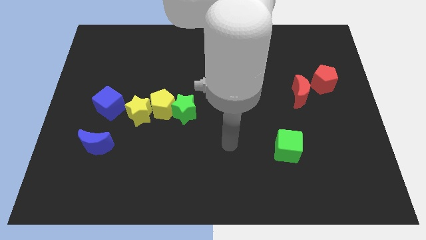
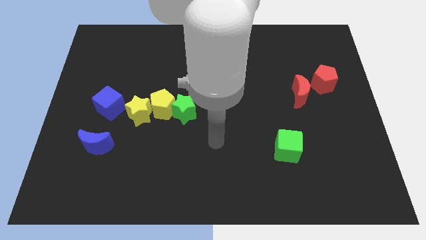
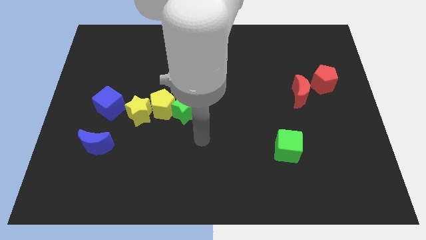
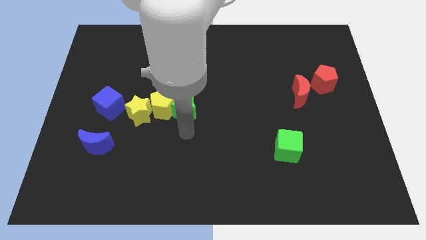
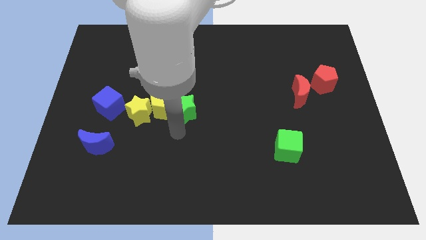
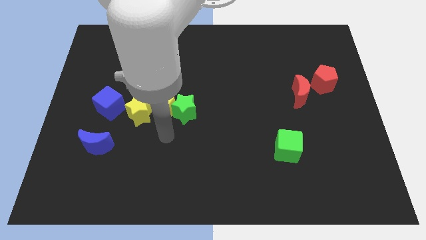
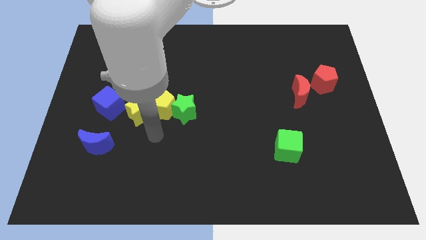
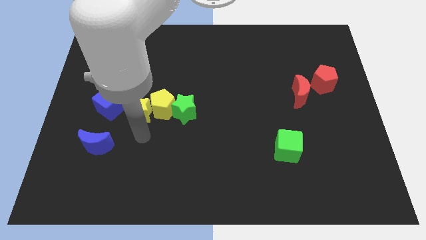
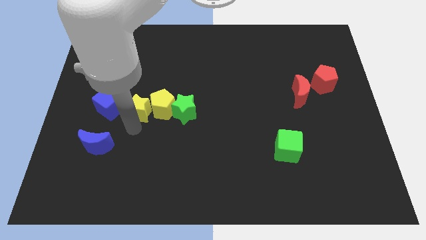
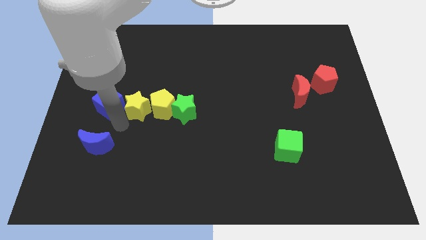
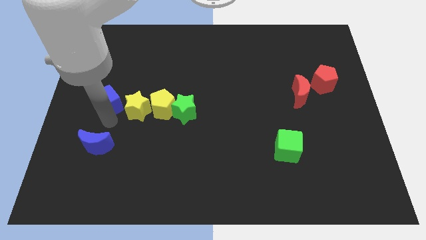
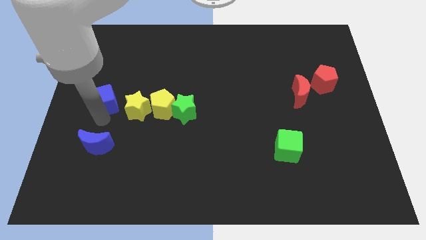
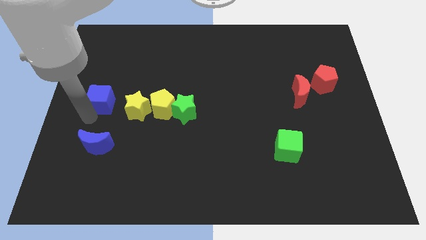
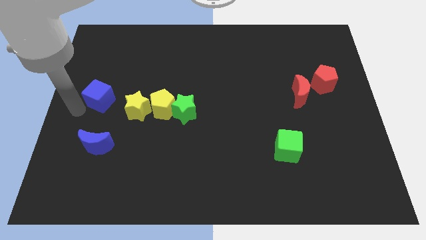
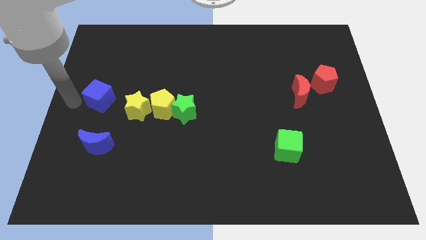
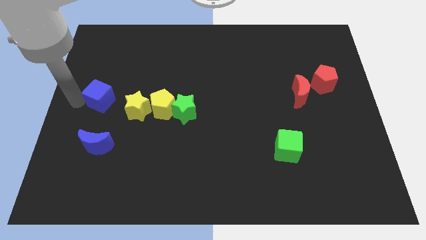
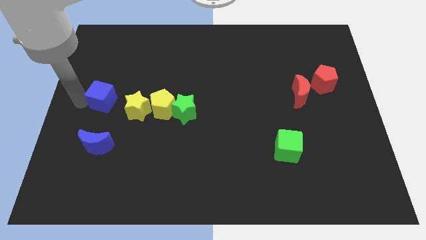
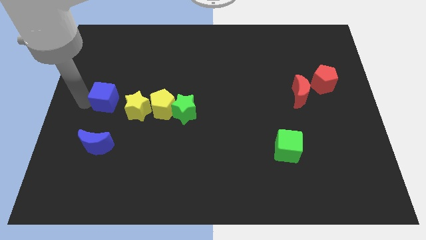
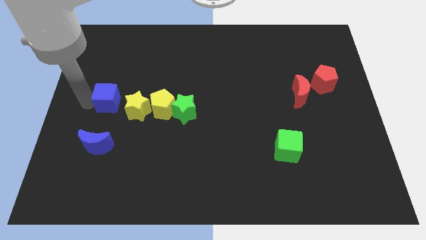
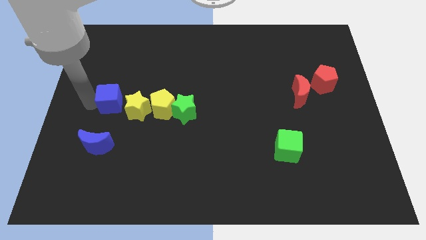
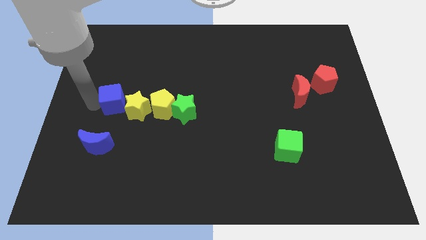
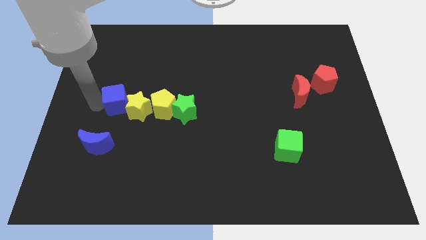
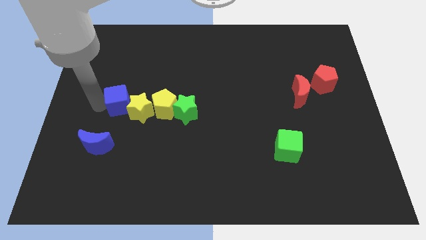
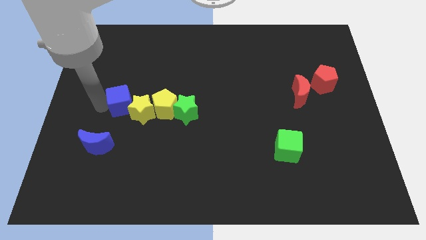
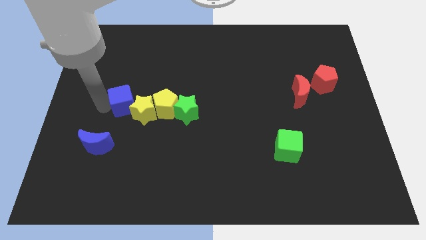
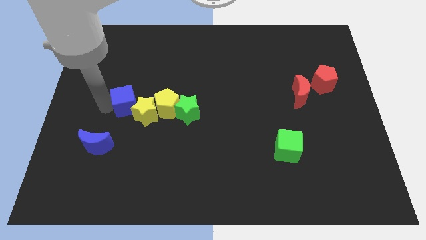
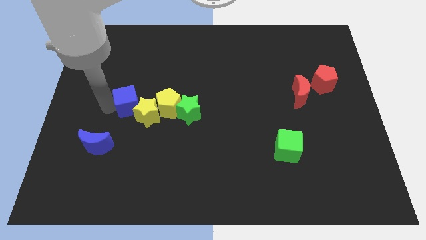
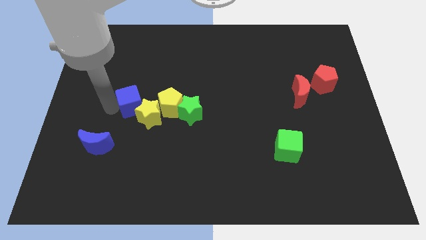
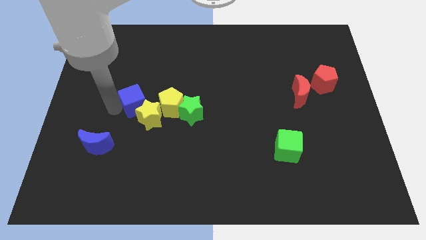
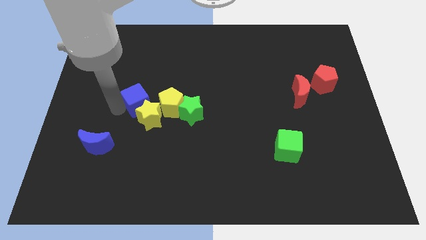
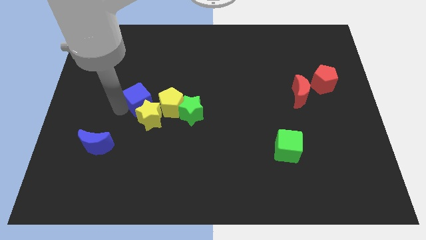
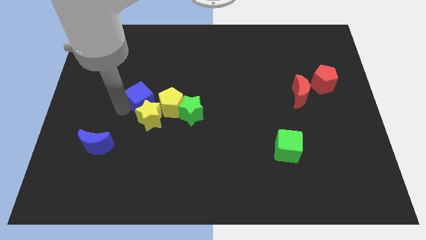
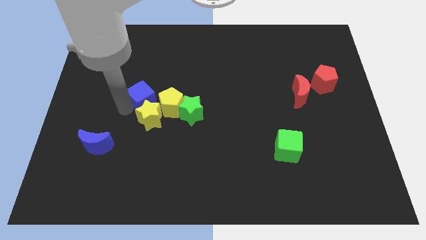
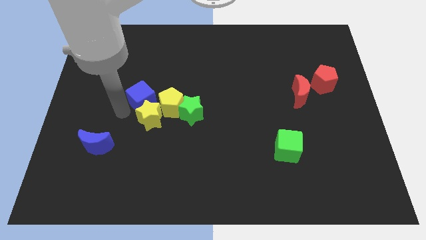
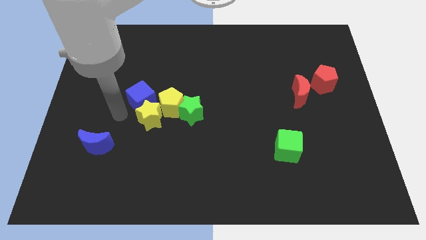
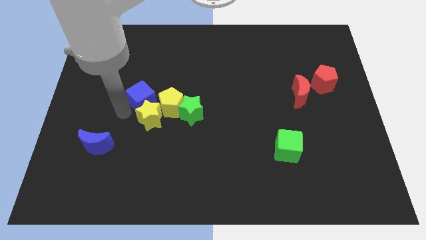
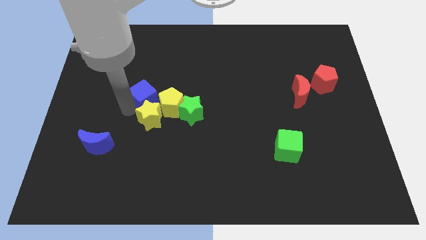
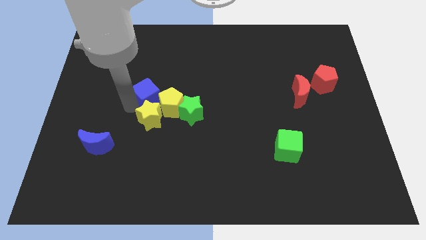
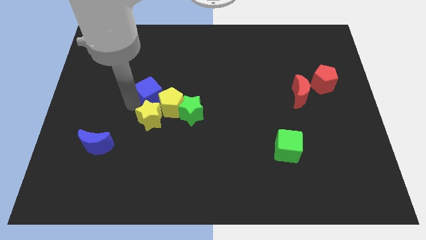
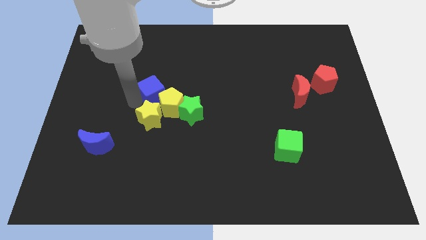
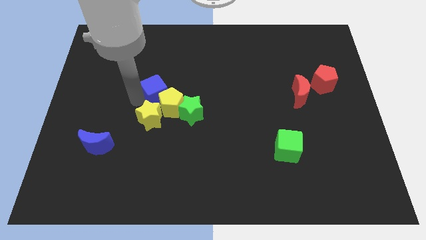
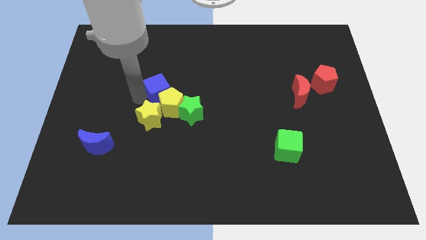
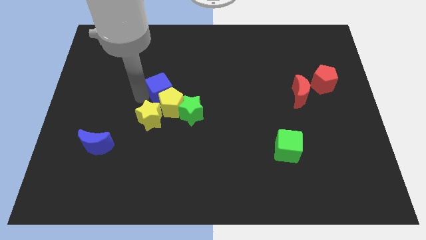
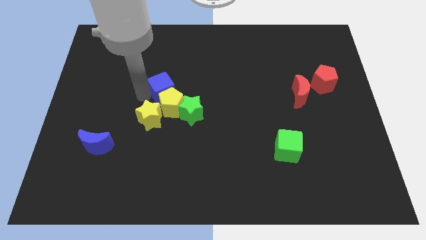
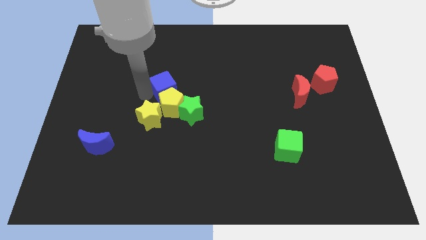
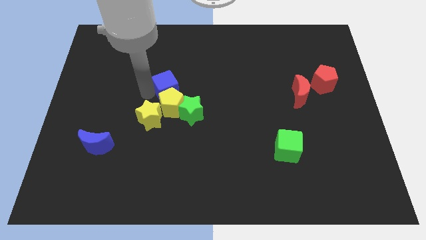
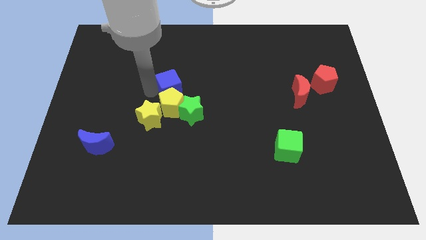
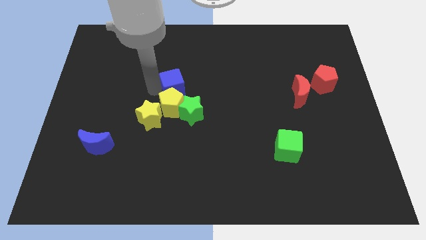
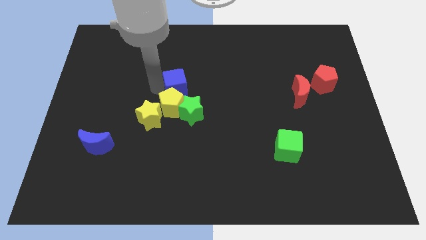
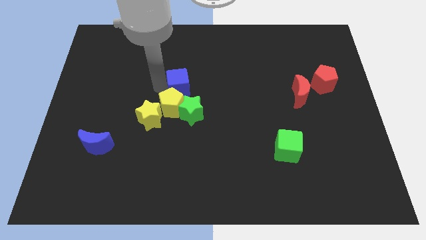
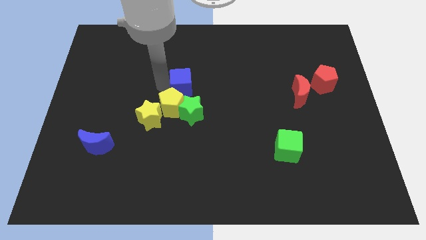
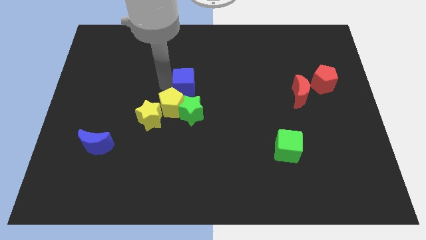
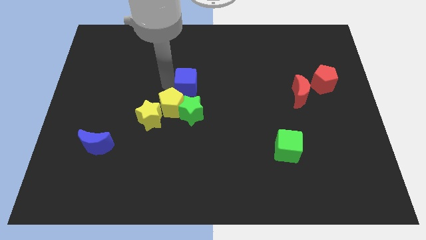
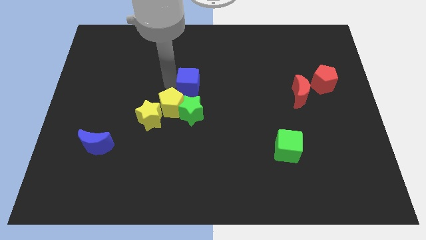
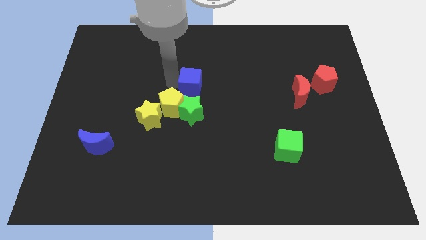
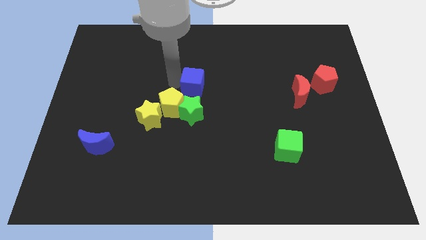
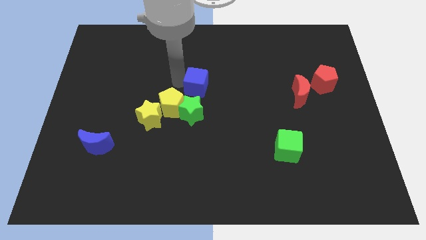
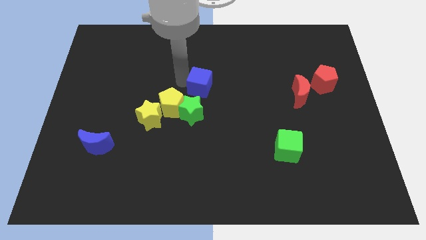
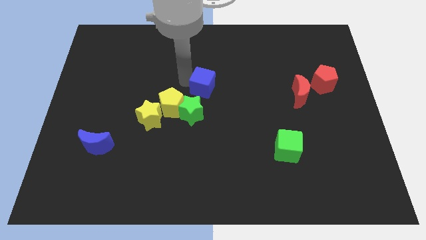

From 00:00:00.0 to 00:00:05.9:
push the blue cube to the right

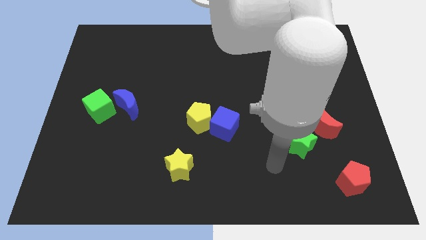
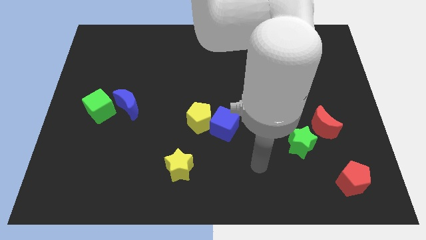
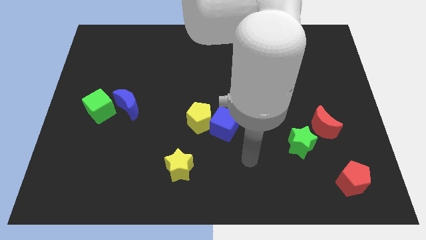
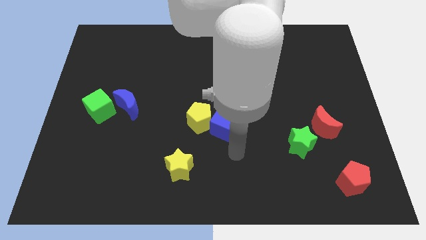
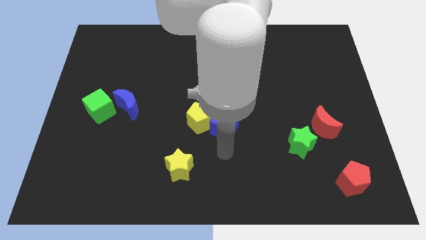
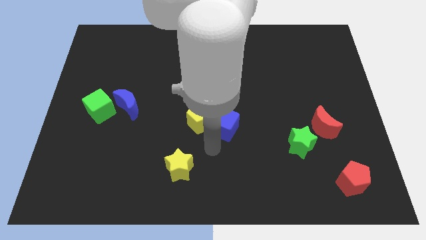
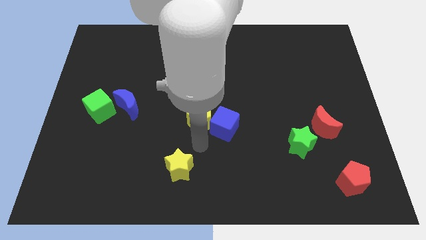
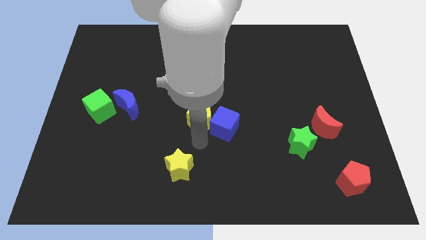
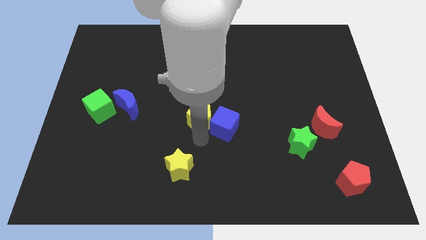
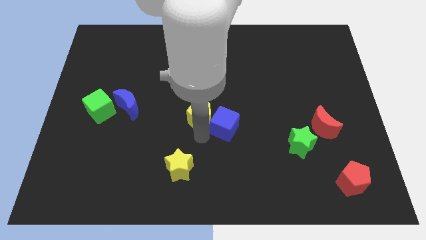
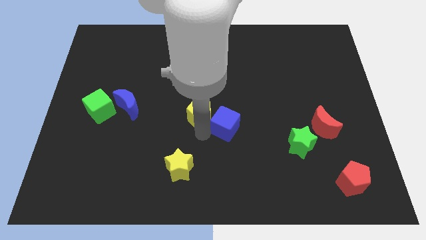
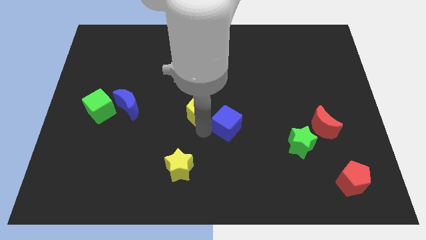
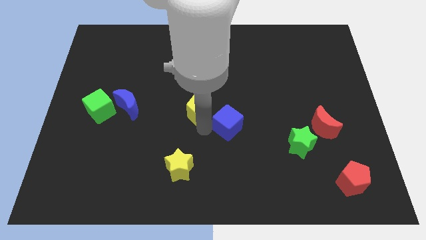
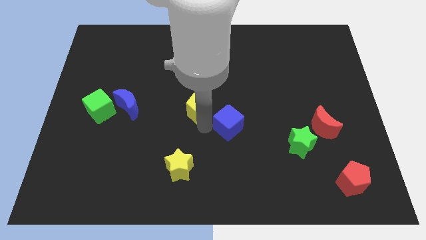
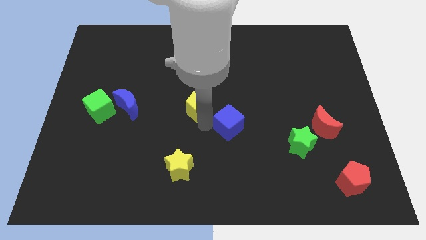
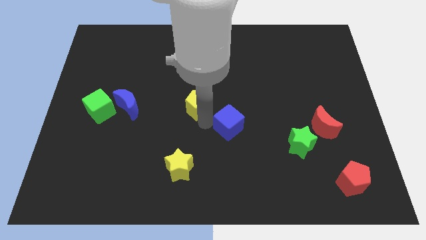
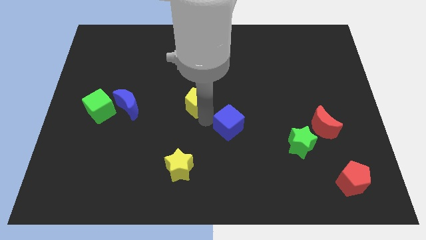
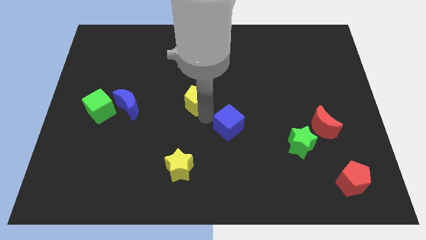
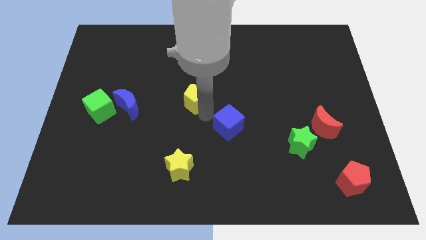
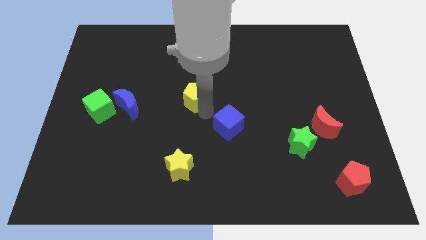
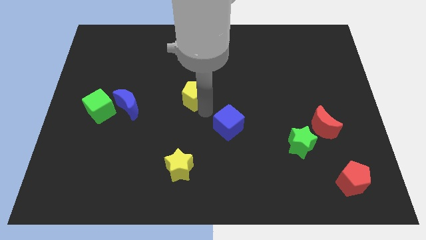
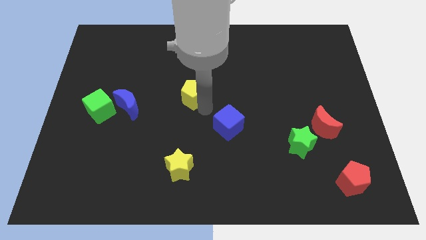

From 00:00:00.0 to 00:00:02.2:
push the yellow pentagon upwards a bit
